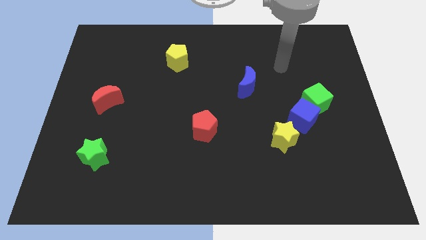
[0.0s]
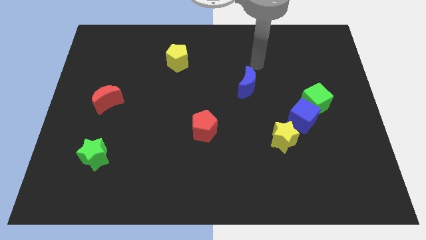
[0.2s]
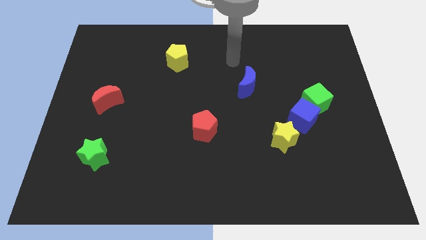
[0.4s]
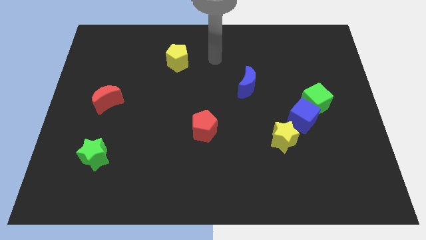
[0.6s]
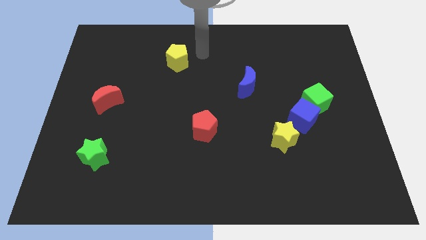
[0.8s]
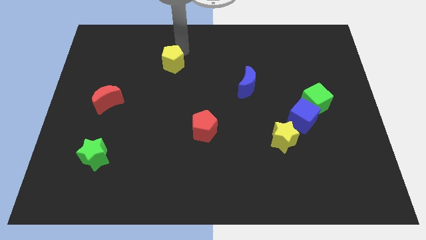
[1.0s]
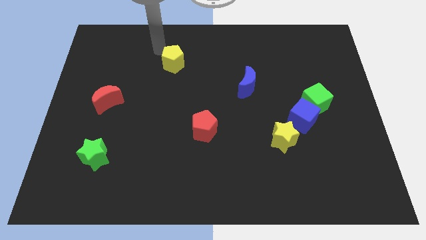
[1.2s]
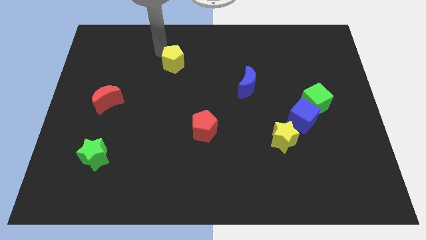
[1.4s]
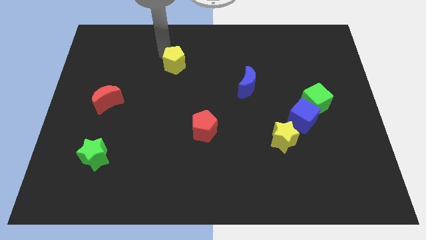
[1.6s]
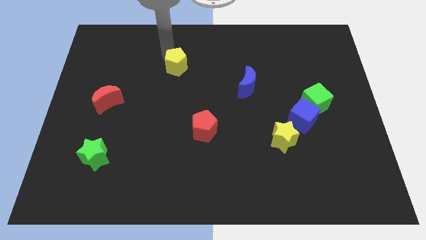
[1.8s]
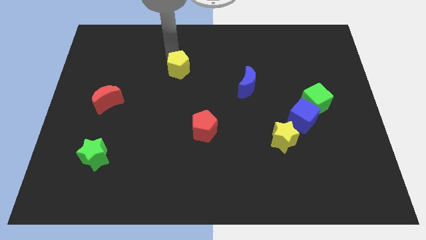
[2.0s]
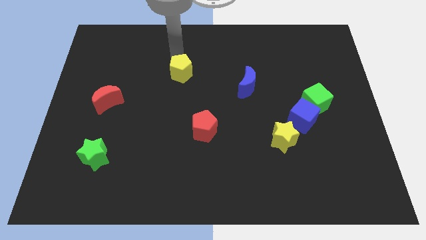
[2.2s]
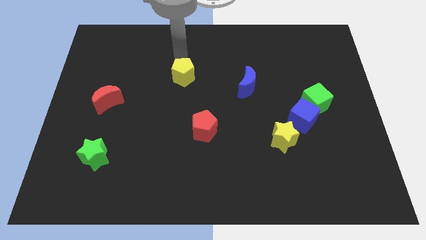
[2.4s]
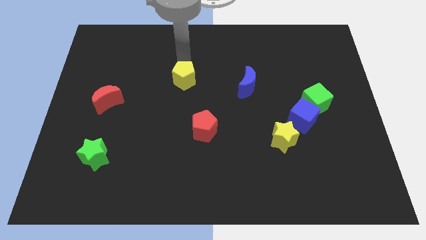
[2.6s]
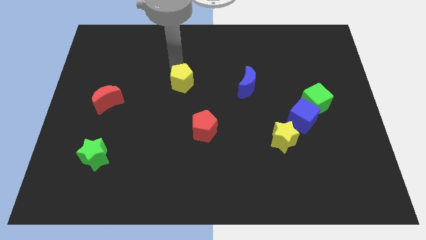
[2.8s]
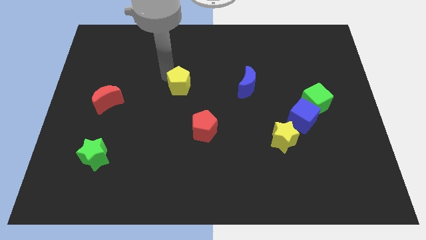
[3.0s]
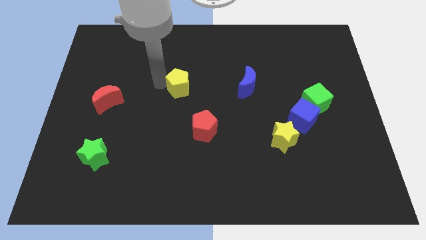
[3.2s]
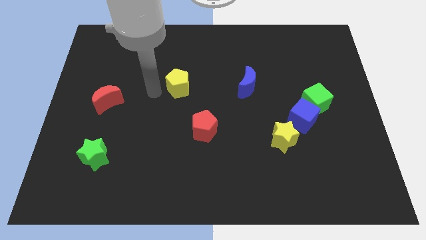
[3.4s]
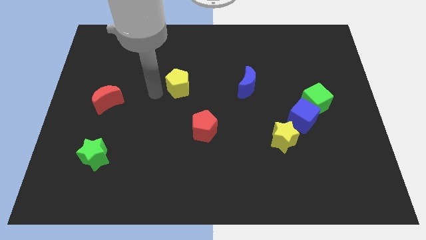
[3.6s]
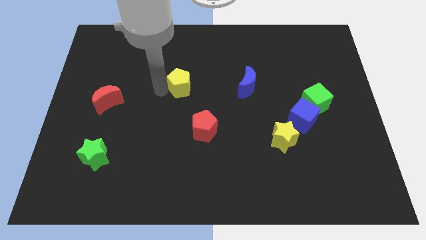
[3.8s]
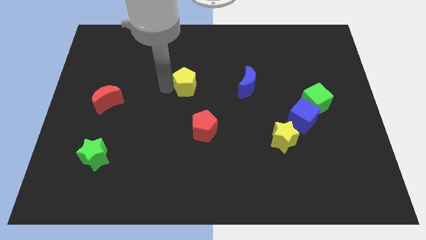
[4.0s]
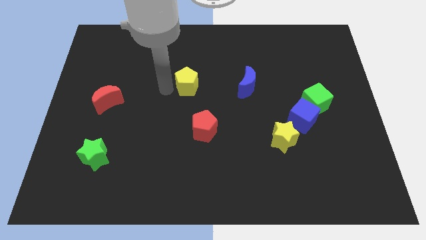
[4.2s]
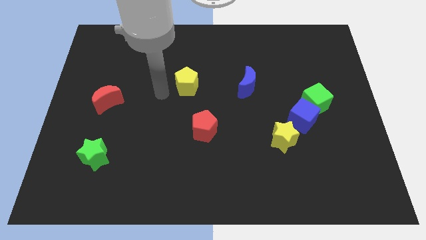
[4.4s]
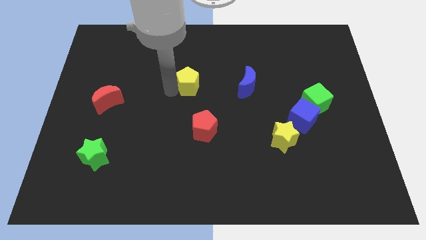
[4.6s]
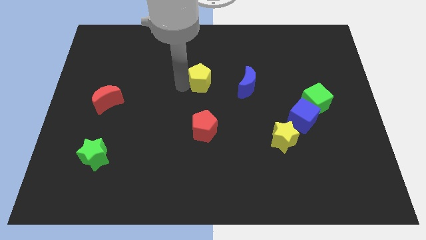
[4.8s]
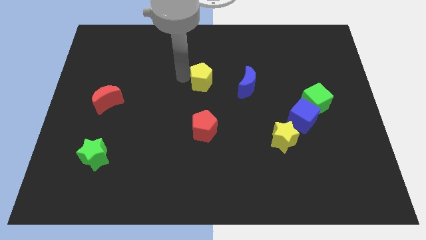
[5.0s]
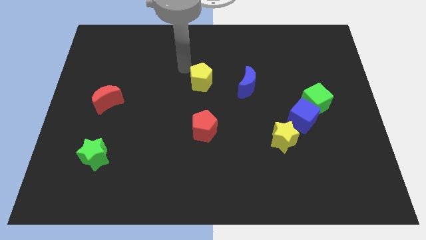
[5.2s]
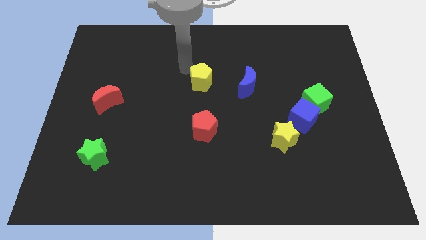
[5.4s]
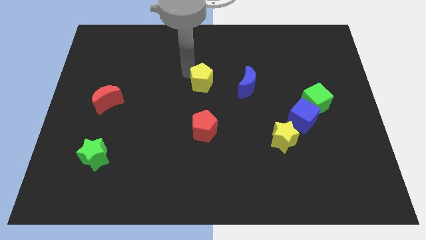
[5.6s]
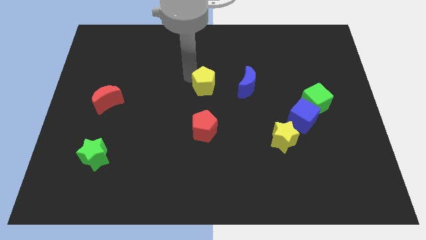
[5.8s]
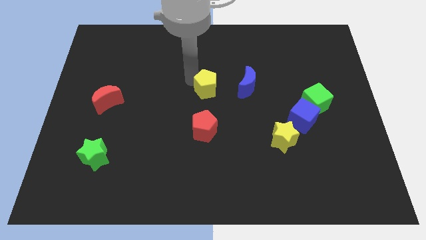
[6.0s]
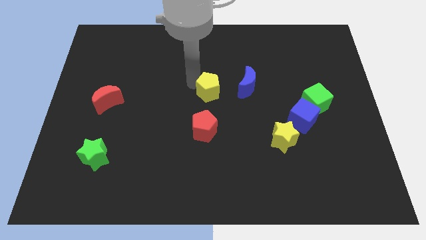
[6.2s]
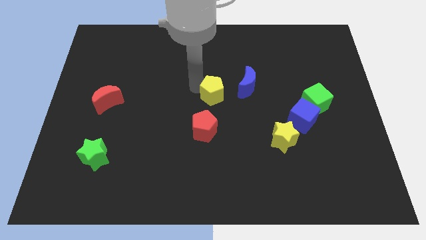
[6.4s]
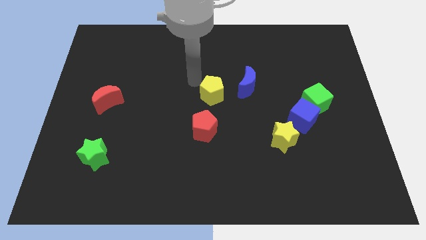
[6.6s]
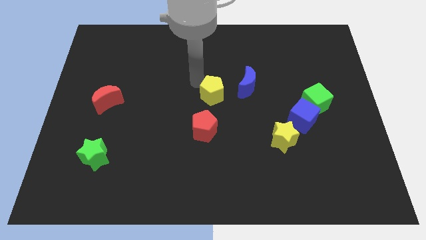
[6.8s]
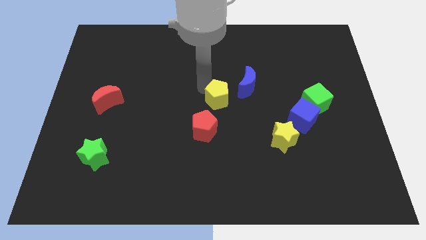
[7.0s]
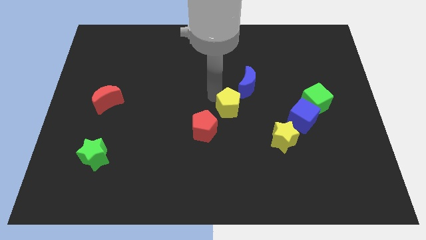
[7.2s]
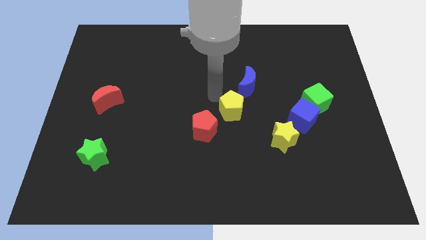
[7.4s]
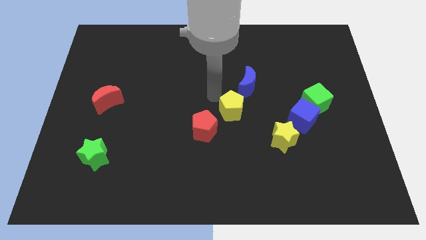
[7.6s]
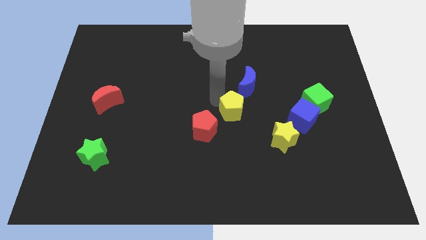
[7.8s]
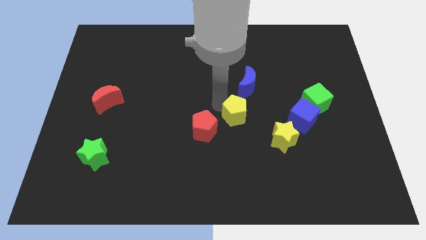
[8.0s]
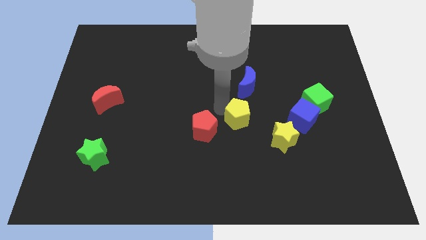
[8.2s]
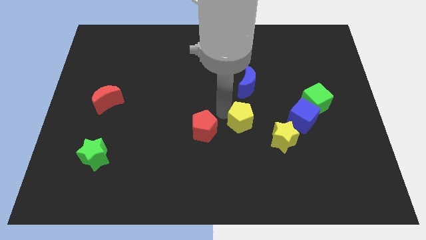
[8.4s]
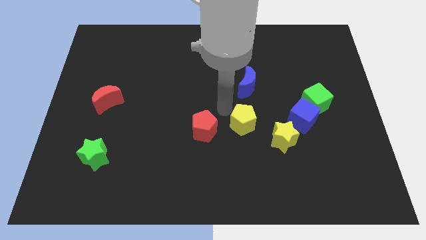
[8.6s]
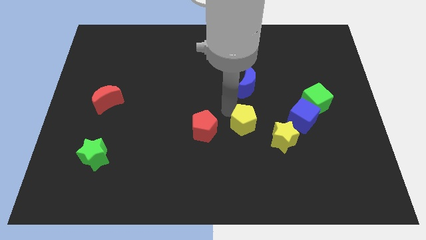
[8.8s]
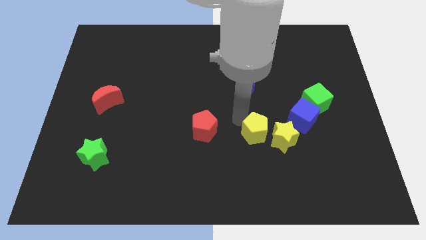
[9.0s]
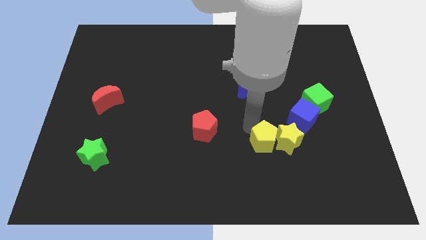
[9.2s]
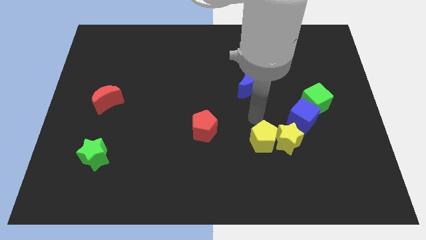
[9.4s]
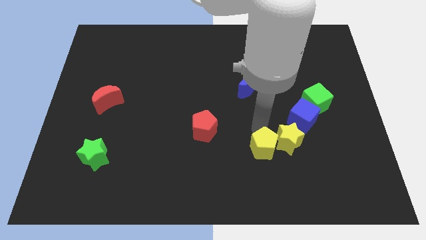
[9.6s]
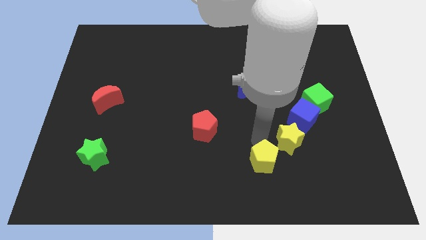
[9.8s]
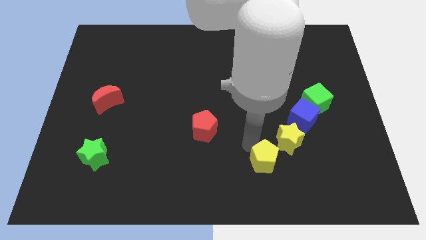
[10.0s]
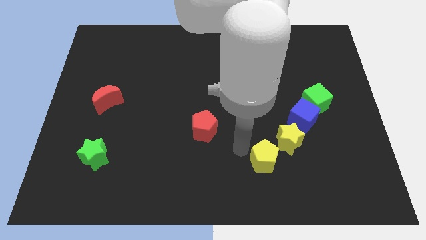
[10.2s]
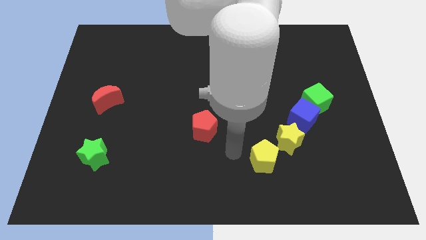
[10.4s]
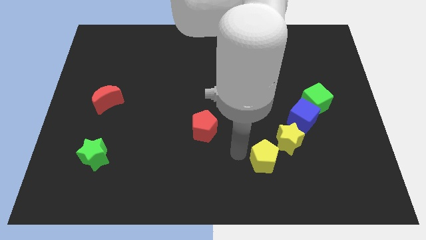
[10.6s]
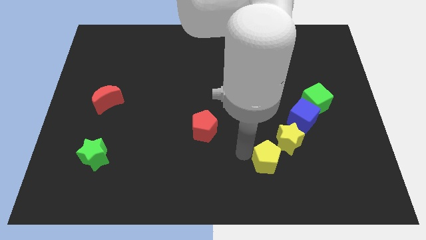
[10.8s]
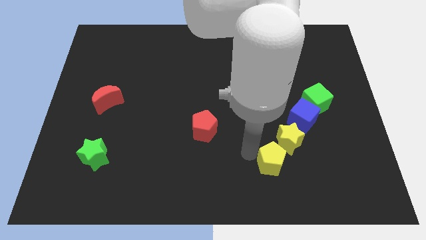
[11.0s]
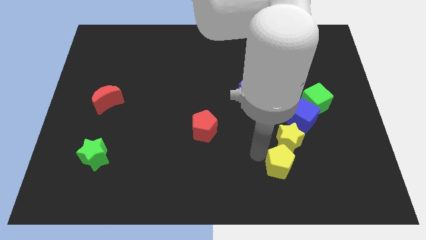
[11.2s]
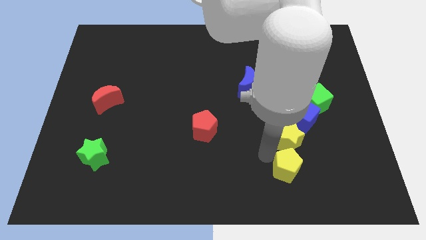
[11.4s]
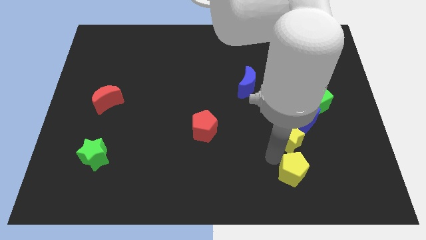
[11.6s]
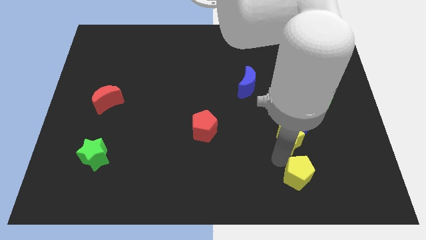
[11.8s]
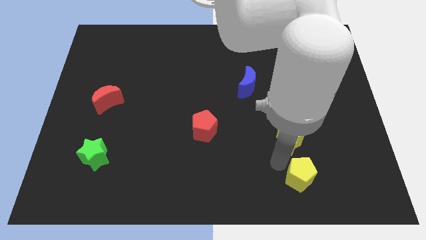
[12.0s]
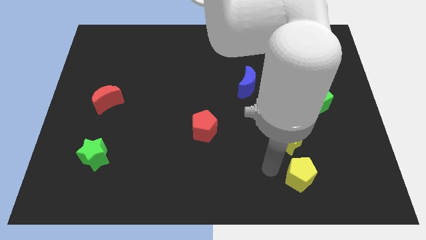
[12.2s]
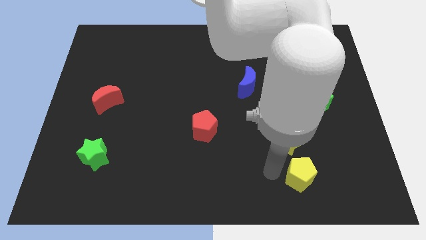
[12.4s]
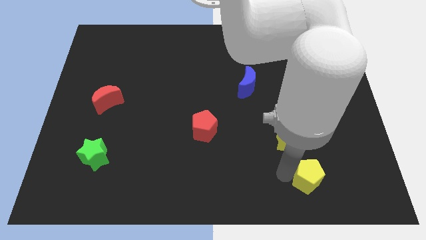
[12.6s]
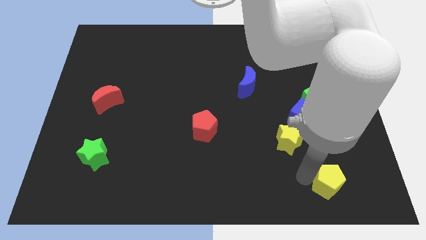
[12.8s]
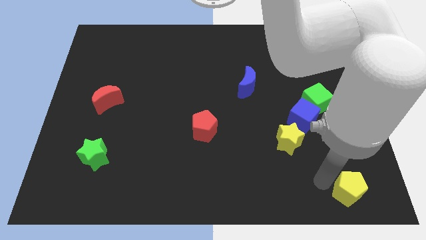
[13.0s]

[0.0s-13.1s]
move the yellow pentagon to the lower right corner

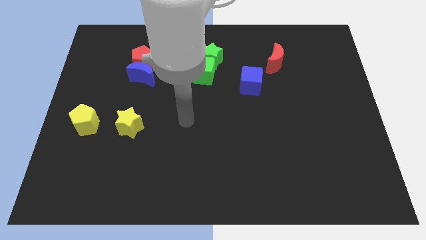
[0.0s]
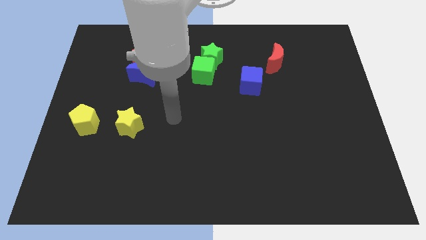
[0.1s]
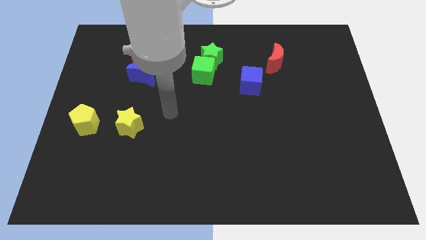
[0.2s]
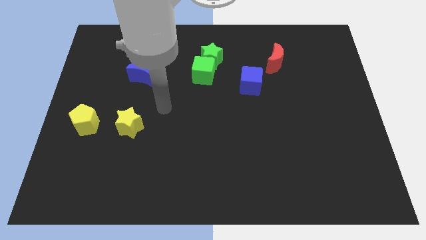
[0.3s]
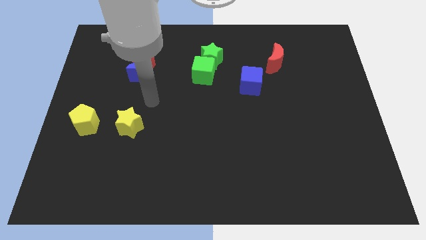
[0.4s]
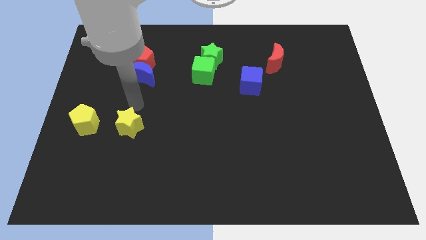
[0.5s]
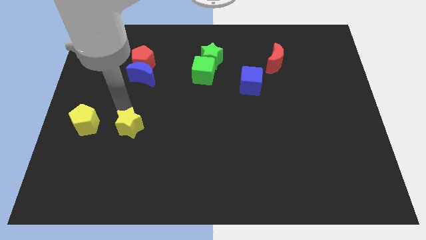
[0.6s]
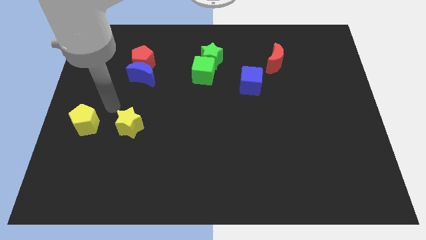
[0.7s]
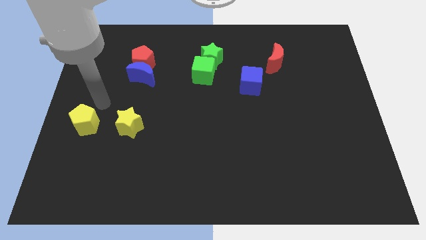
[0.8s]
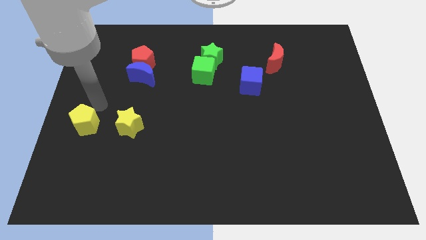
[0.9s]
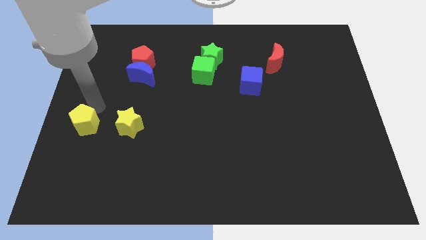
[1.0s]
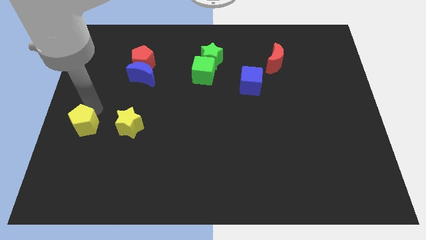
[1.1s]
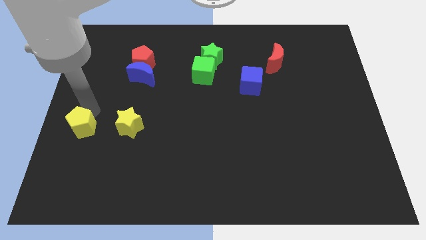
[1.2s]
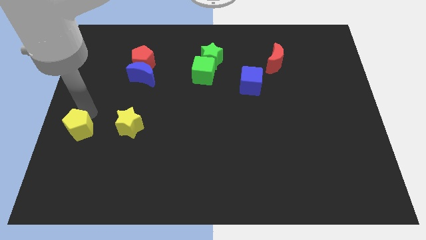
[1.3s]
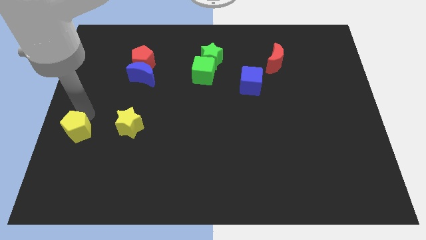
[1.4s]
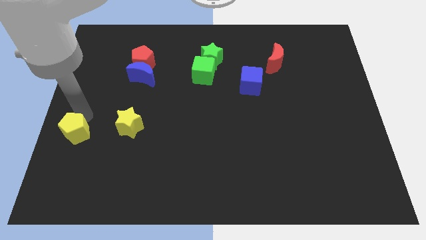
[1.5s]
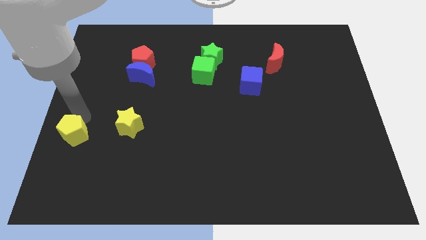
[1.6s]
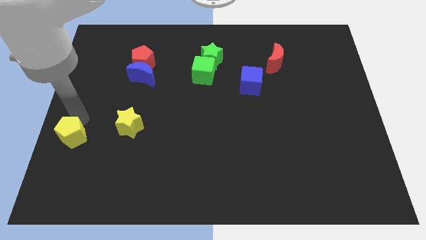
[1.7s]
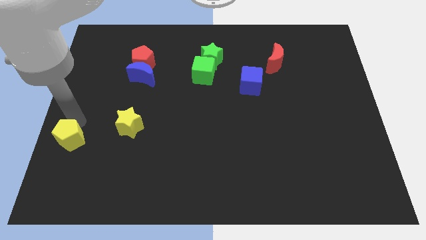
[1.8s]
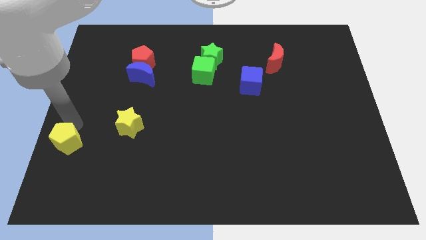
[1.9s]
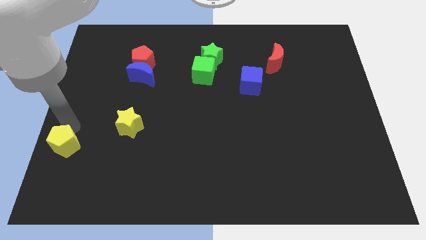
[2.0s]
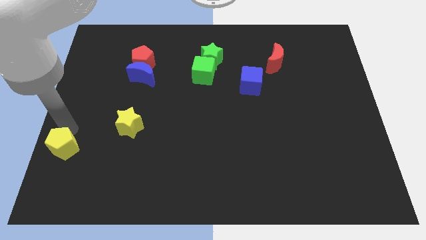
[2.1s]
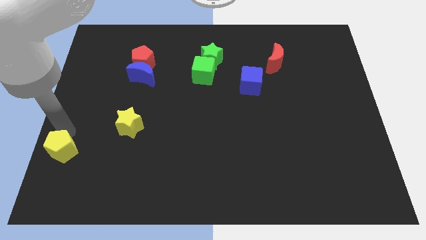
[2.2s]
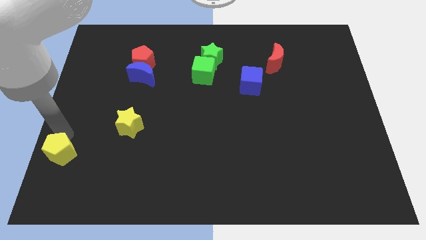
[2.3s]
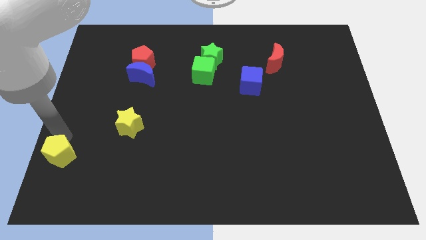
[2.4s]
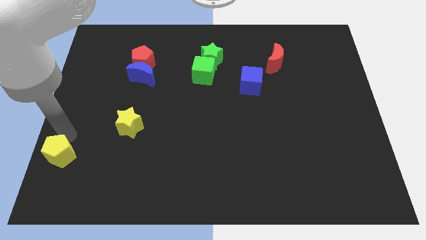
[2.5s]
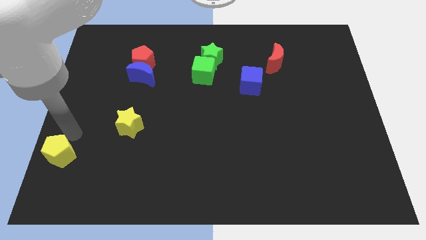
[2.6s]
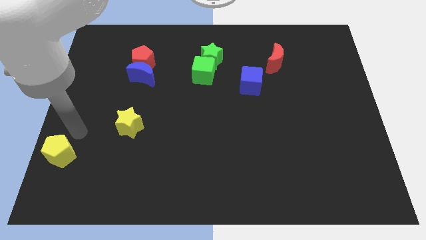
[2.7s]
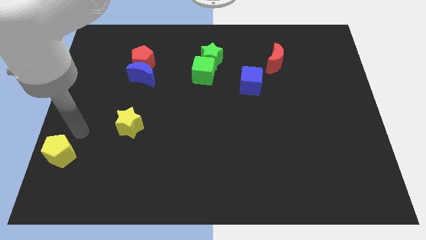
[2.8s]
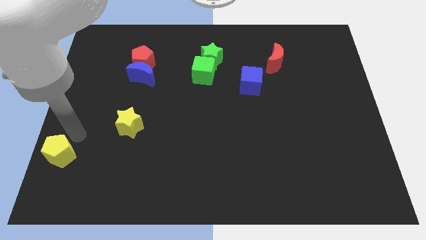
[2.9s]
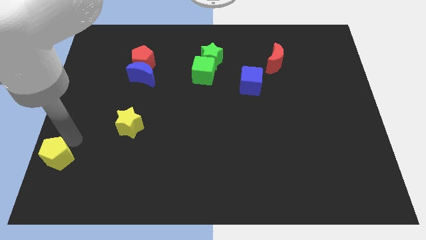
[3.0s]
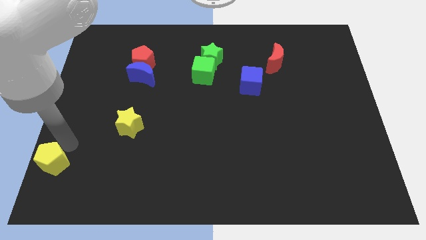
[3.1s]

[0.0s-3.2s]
move the yellow pentagon to the bottom left
